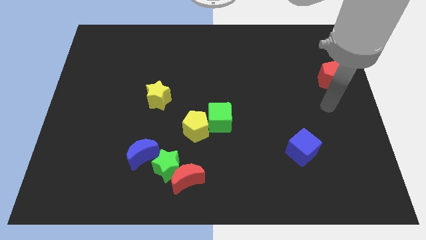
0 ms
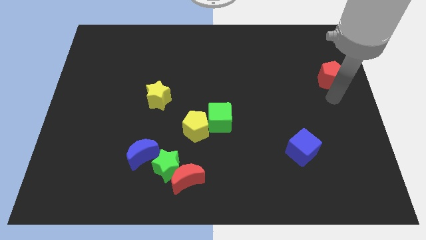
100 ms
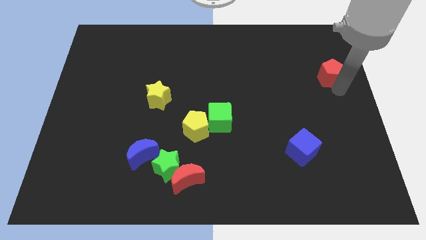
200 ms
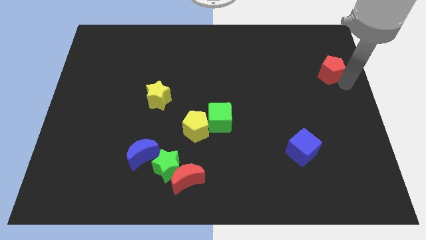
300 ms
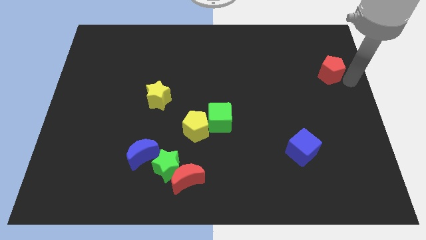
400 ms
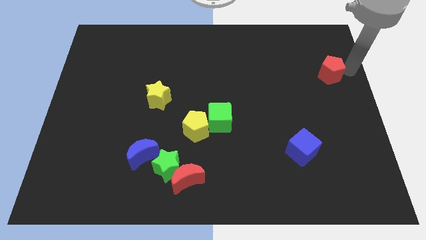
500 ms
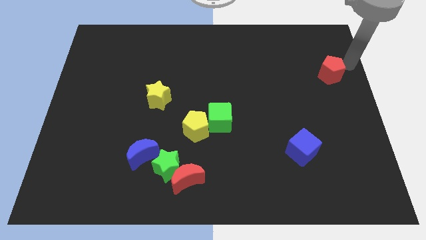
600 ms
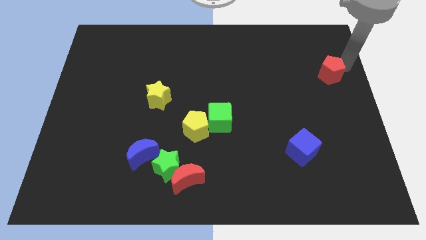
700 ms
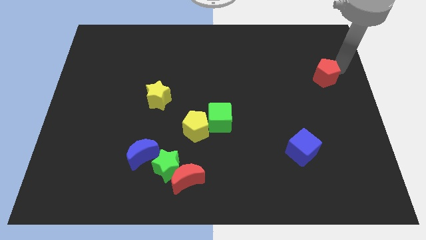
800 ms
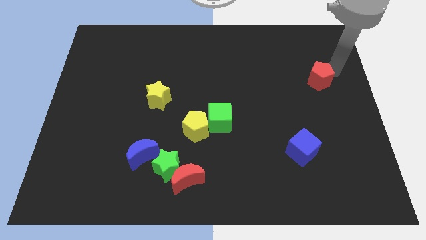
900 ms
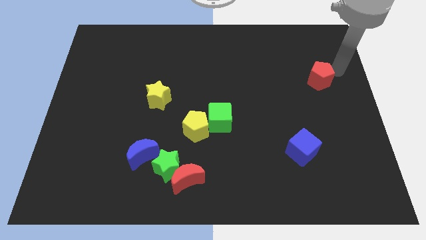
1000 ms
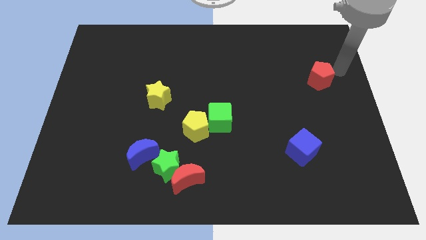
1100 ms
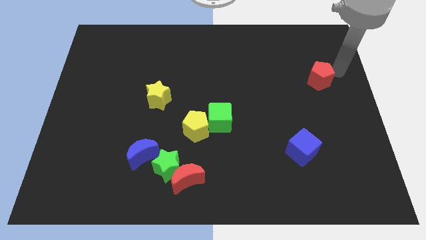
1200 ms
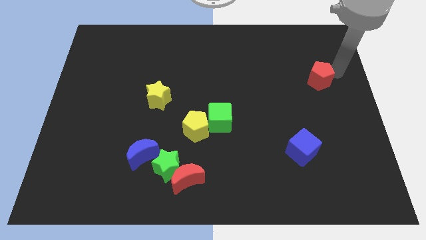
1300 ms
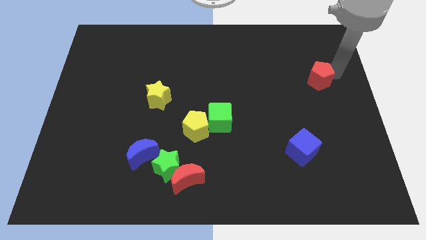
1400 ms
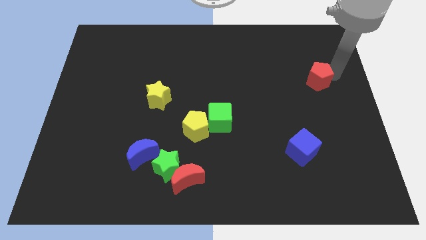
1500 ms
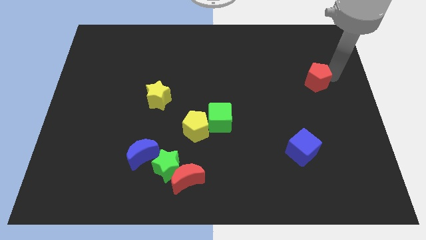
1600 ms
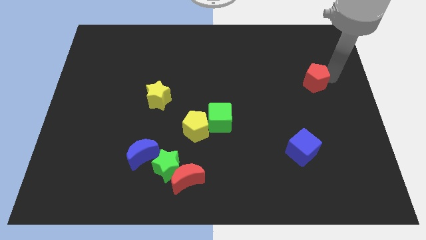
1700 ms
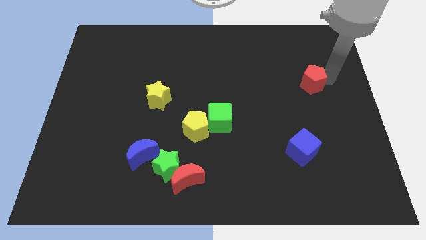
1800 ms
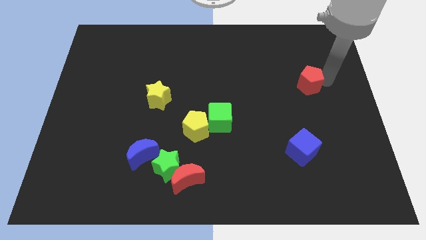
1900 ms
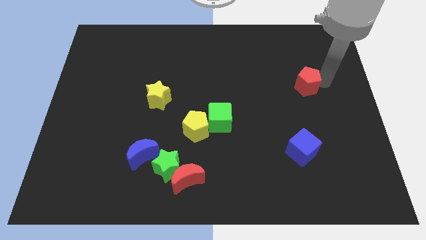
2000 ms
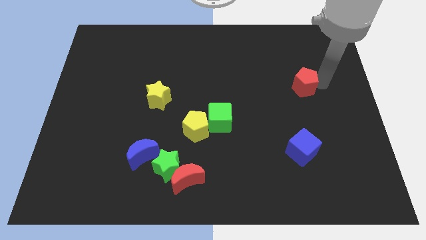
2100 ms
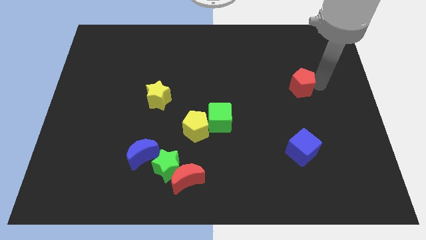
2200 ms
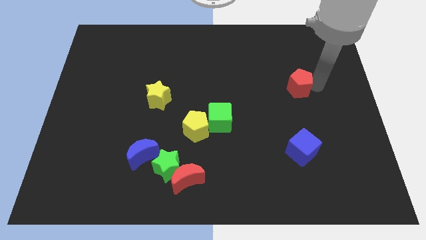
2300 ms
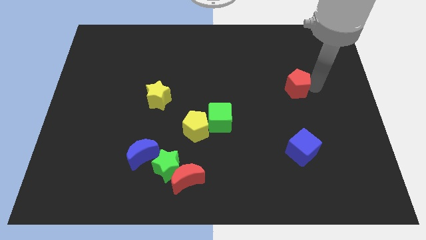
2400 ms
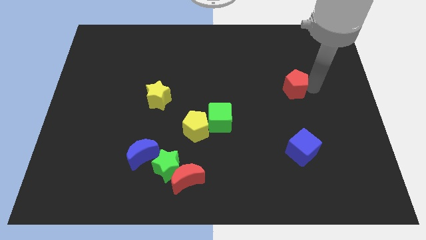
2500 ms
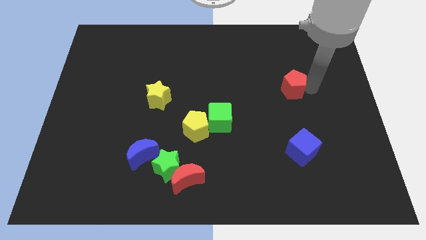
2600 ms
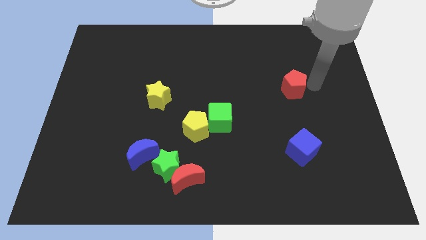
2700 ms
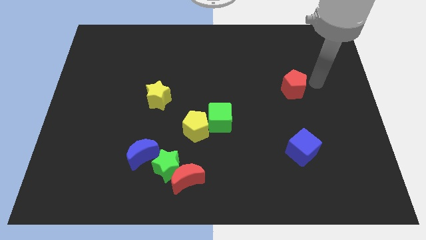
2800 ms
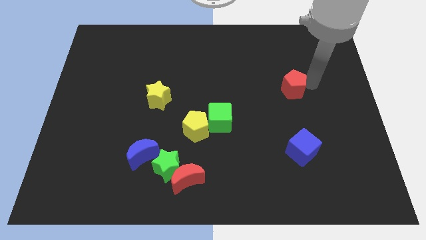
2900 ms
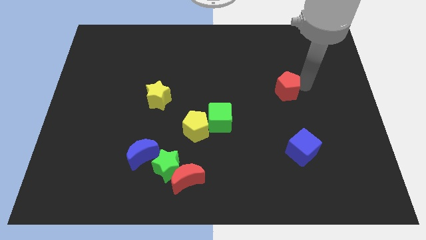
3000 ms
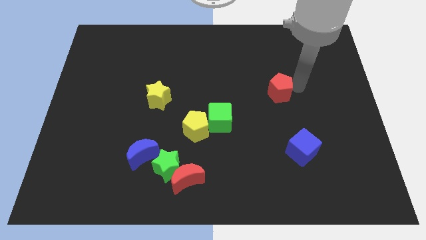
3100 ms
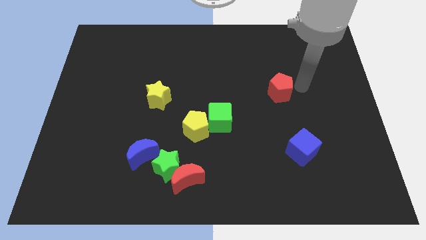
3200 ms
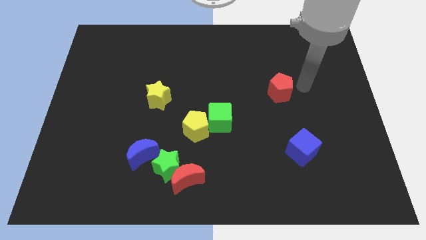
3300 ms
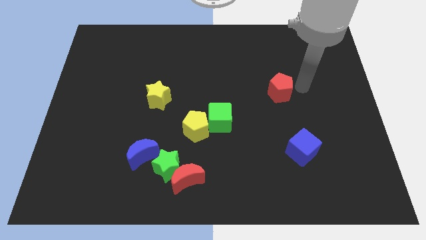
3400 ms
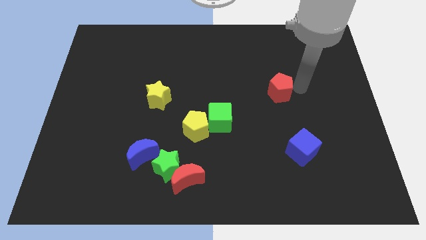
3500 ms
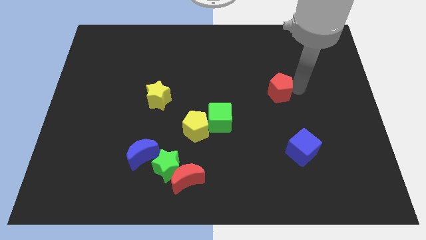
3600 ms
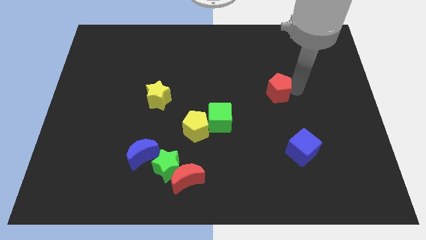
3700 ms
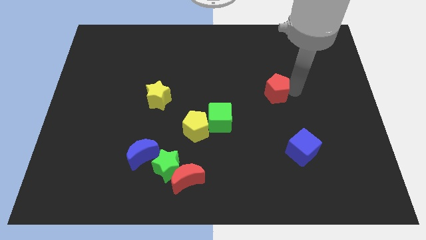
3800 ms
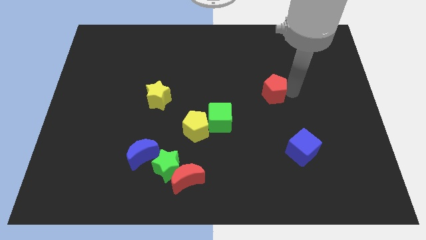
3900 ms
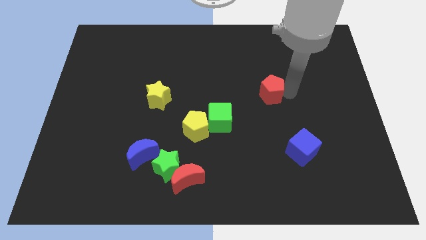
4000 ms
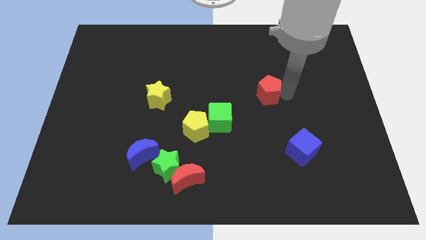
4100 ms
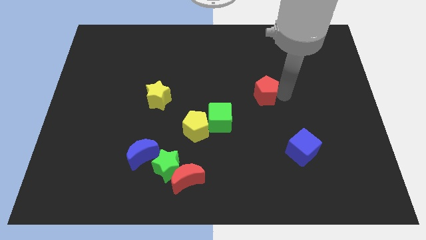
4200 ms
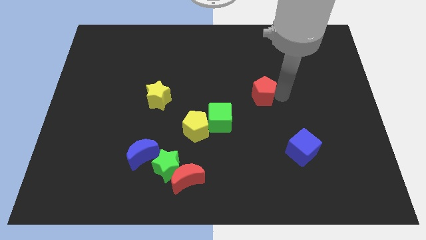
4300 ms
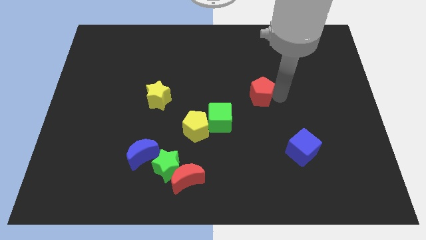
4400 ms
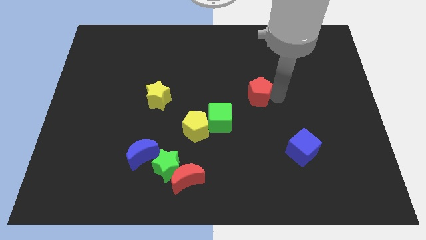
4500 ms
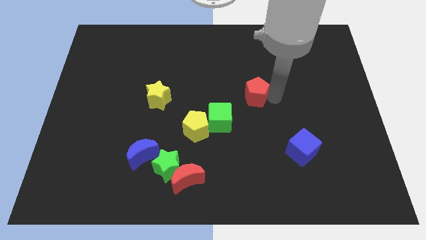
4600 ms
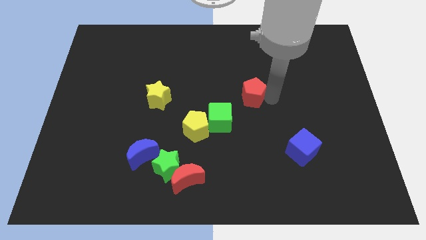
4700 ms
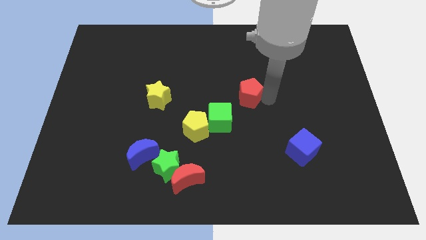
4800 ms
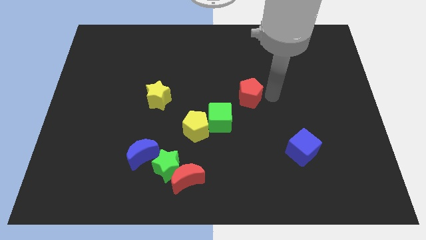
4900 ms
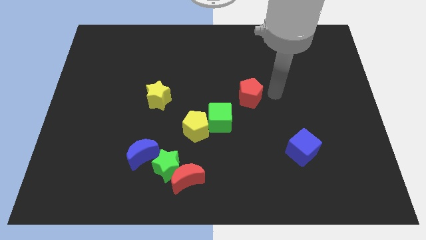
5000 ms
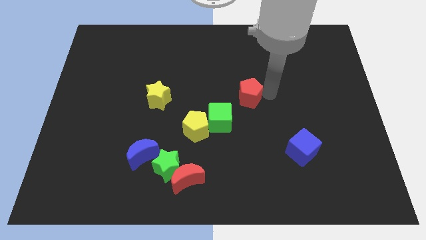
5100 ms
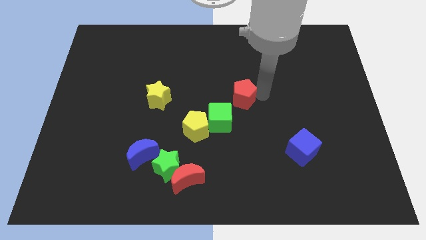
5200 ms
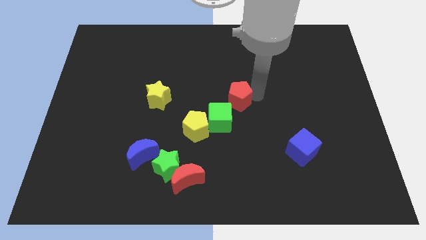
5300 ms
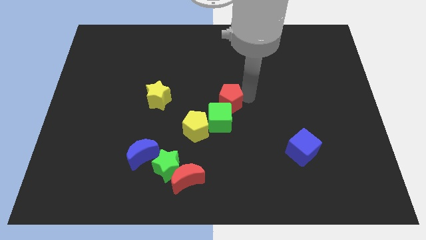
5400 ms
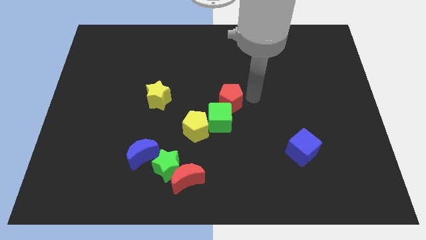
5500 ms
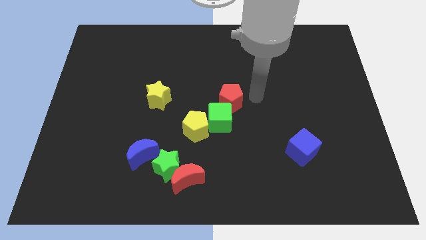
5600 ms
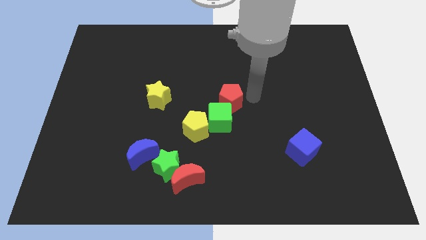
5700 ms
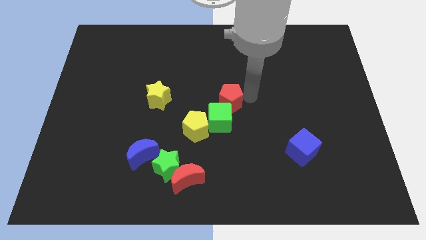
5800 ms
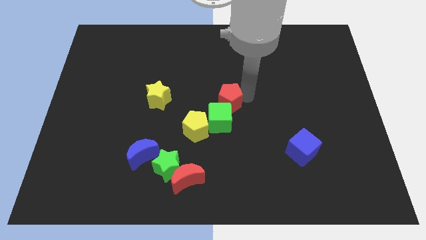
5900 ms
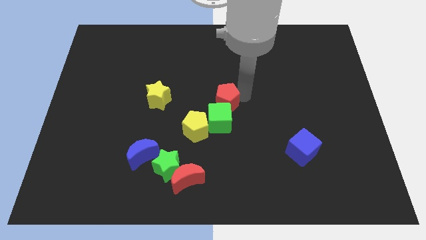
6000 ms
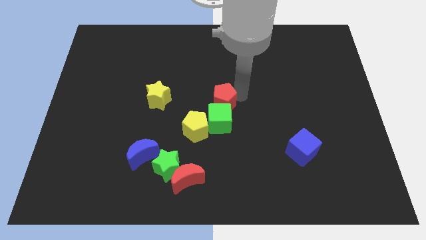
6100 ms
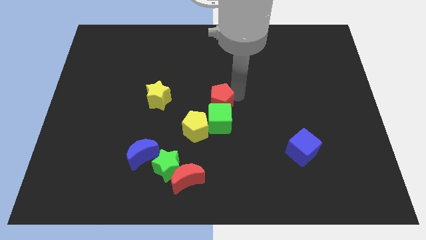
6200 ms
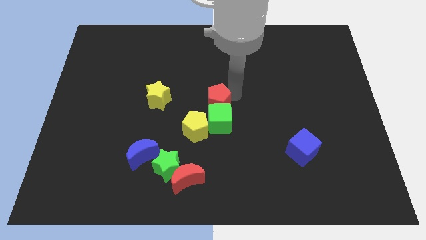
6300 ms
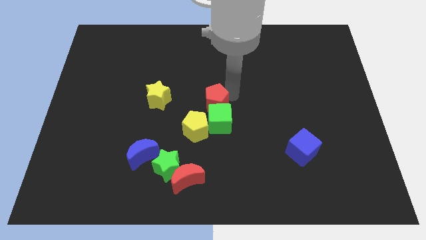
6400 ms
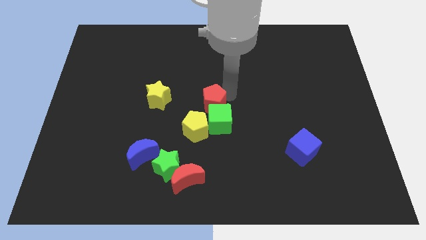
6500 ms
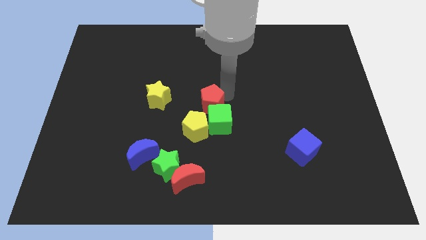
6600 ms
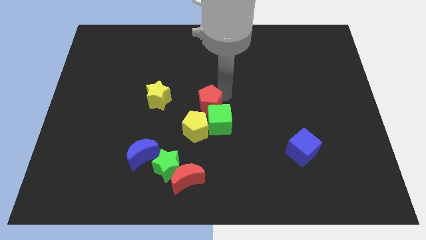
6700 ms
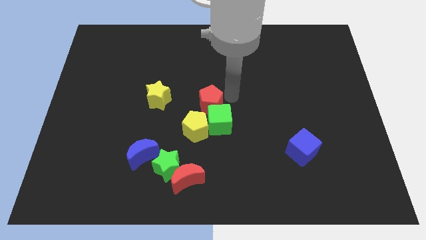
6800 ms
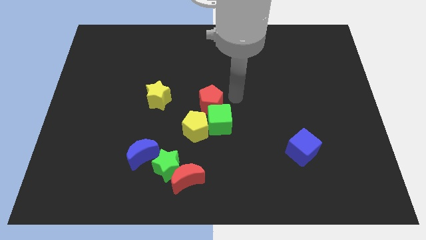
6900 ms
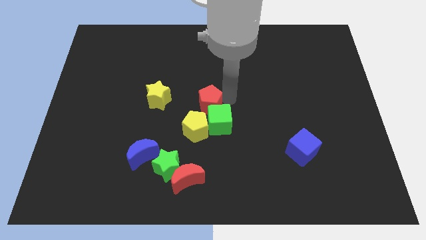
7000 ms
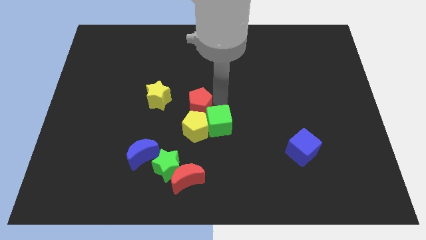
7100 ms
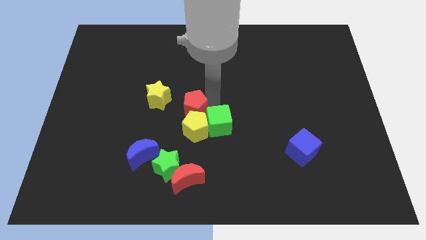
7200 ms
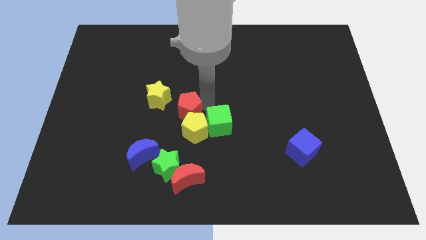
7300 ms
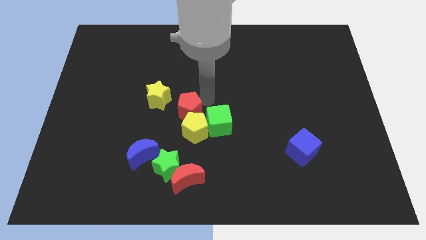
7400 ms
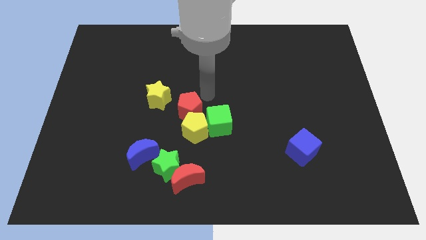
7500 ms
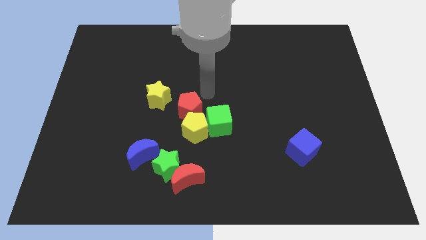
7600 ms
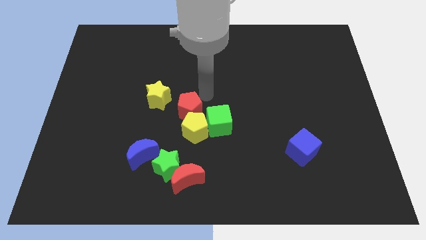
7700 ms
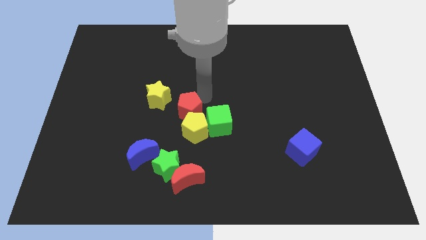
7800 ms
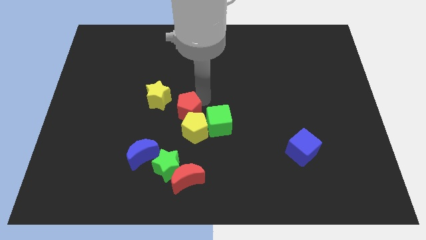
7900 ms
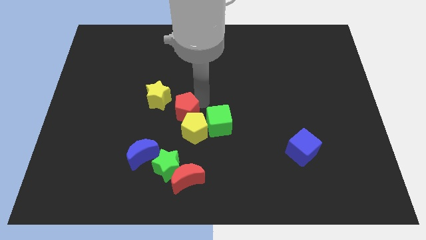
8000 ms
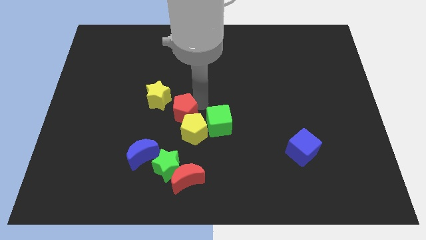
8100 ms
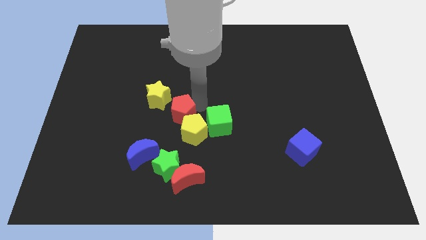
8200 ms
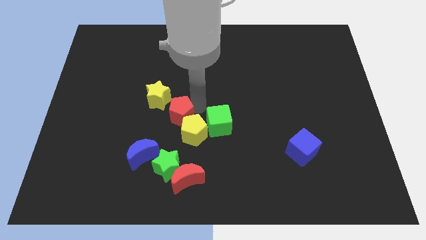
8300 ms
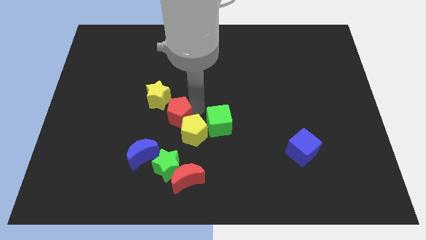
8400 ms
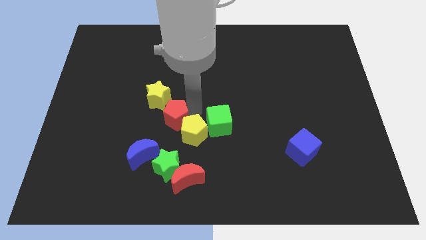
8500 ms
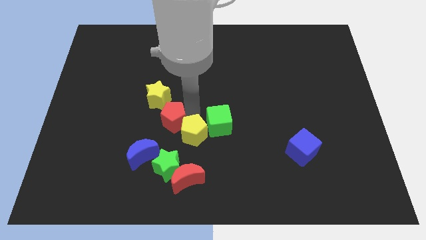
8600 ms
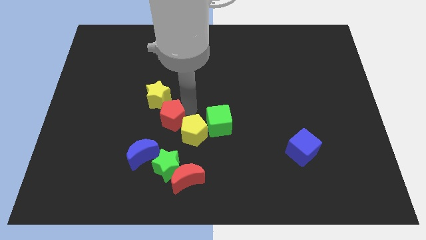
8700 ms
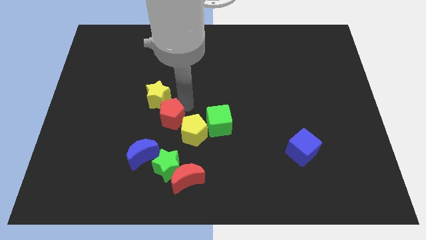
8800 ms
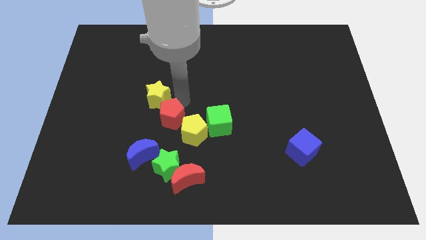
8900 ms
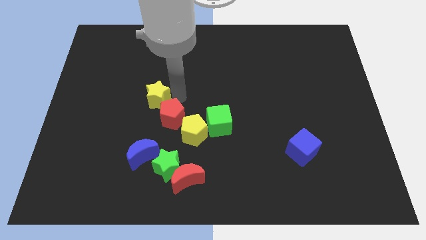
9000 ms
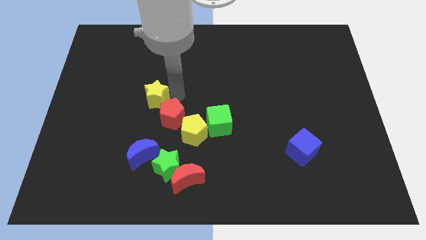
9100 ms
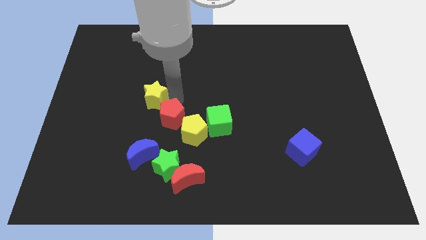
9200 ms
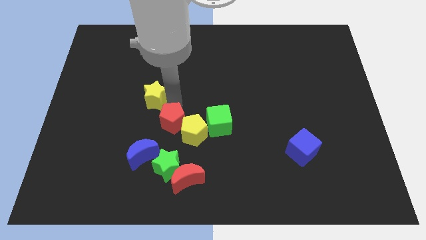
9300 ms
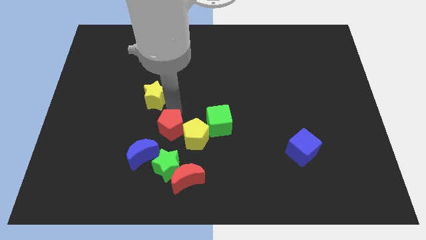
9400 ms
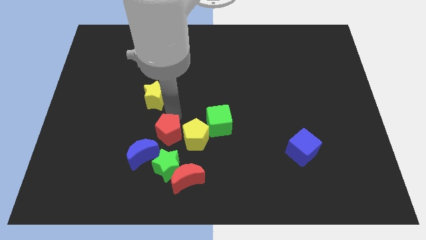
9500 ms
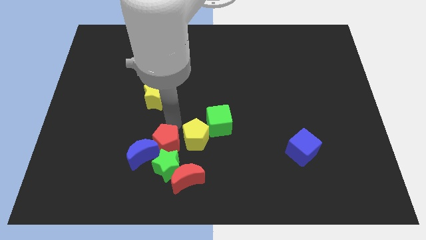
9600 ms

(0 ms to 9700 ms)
move the red pentagon towards the blue moon
